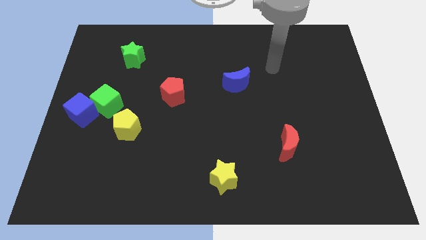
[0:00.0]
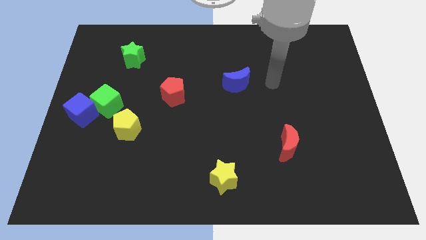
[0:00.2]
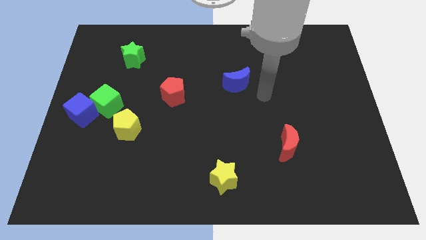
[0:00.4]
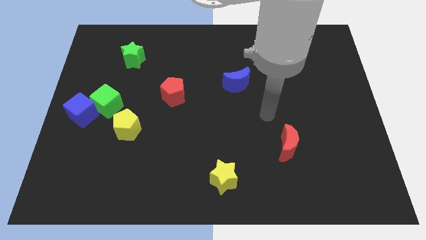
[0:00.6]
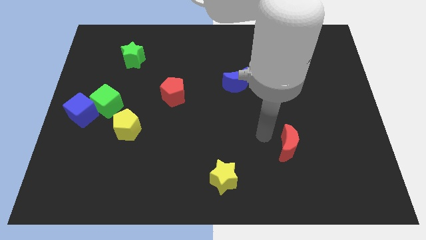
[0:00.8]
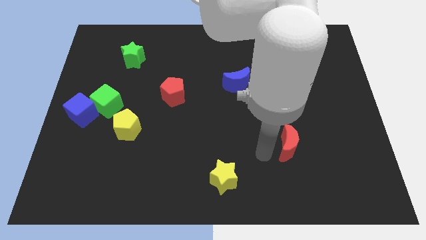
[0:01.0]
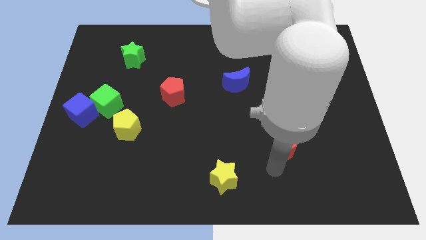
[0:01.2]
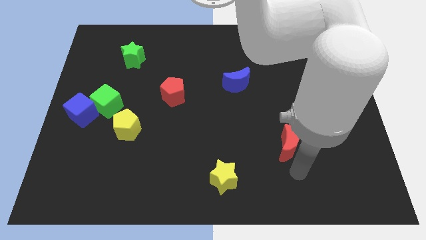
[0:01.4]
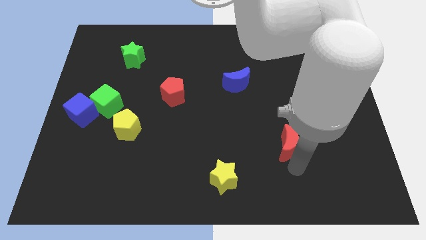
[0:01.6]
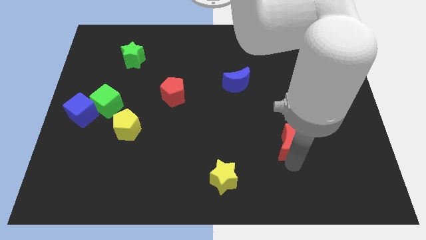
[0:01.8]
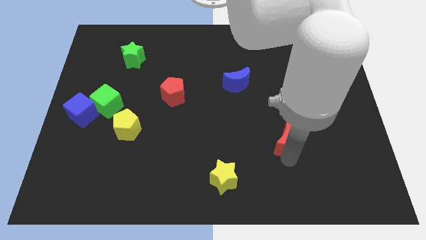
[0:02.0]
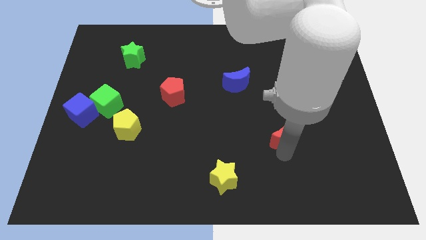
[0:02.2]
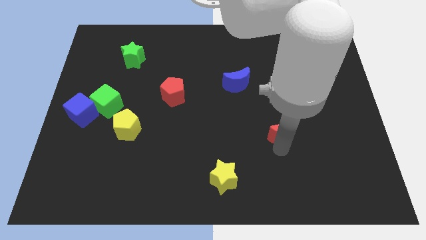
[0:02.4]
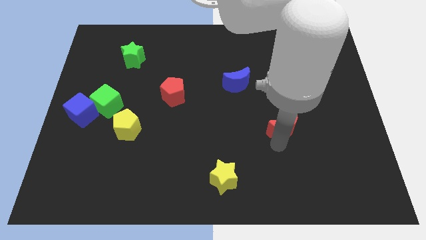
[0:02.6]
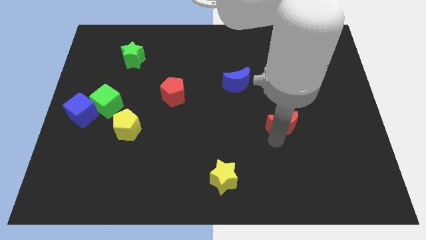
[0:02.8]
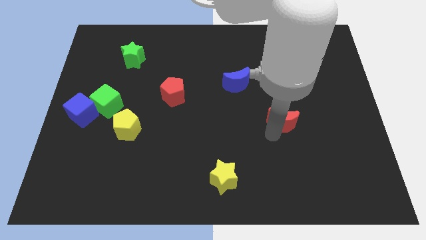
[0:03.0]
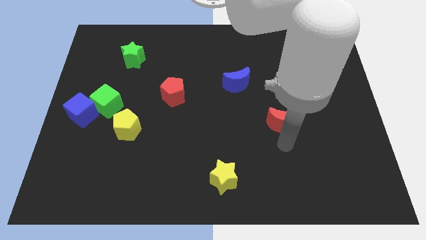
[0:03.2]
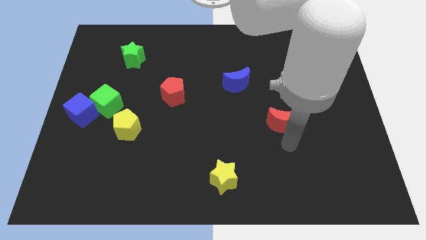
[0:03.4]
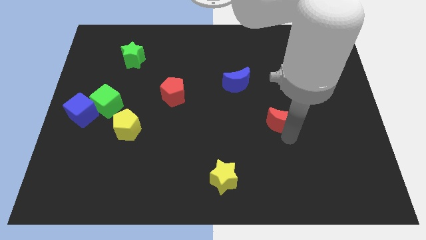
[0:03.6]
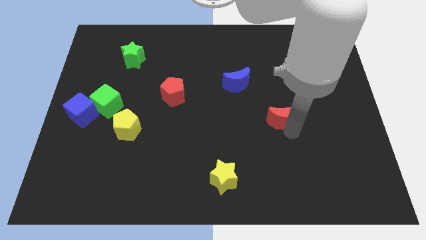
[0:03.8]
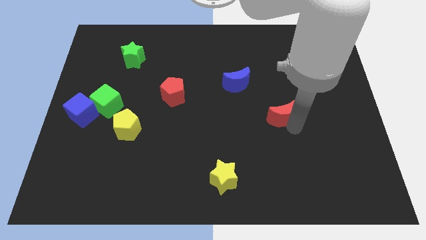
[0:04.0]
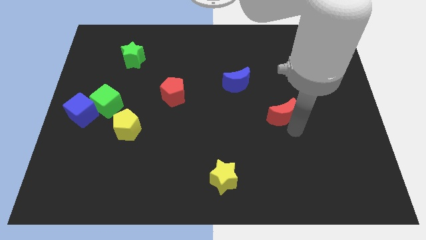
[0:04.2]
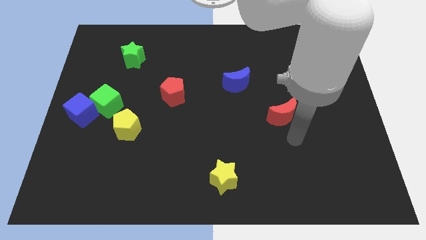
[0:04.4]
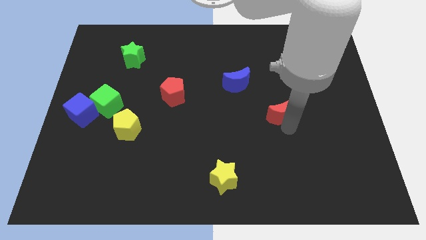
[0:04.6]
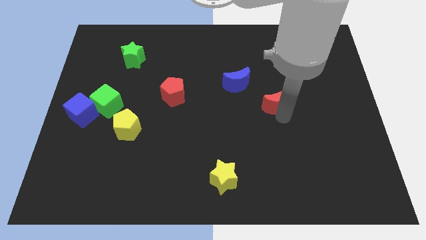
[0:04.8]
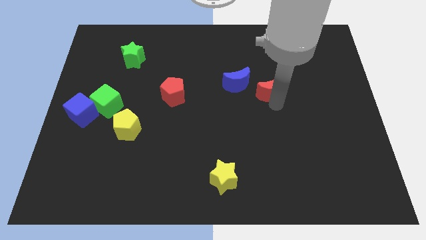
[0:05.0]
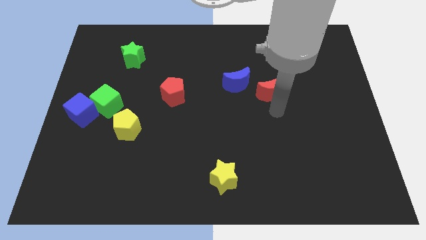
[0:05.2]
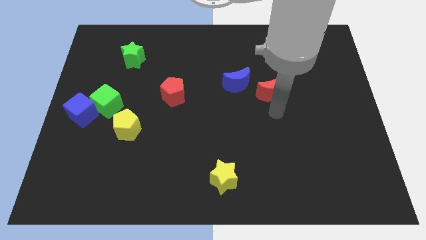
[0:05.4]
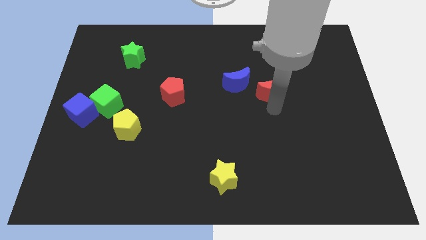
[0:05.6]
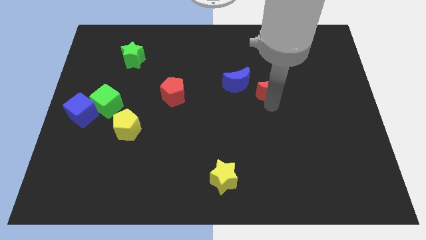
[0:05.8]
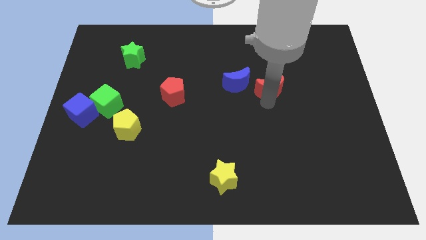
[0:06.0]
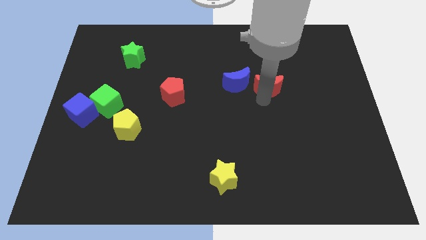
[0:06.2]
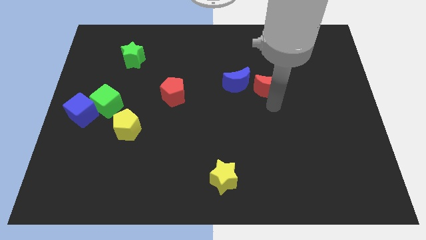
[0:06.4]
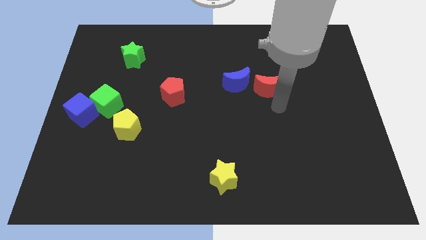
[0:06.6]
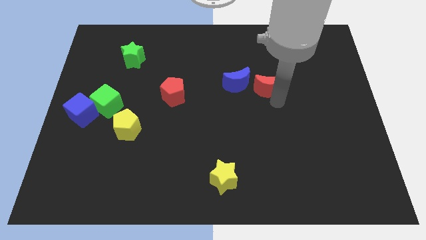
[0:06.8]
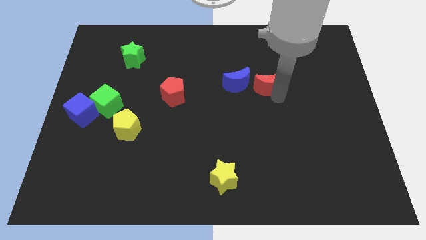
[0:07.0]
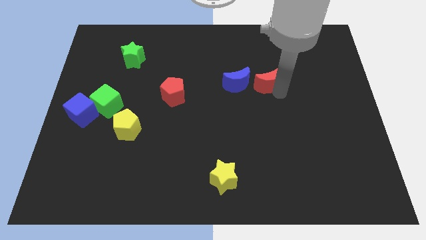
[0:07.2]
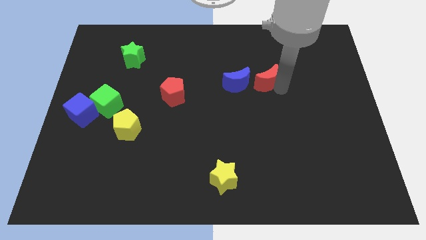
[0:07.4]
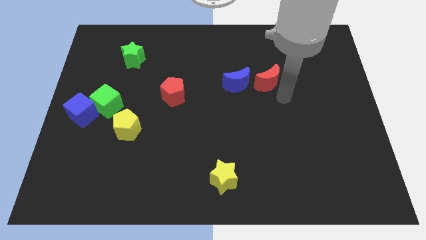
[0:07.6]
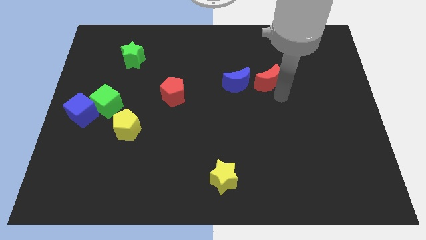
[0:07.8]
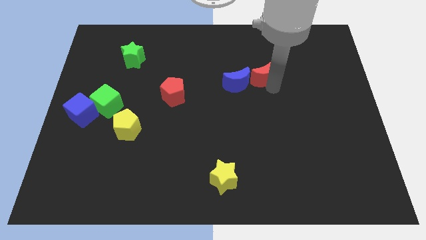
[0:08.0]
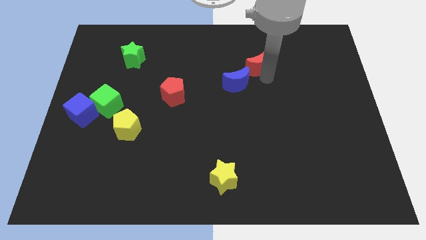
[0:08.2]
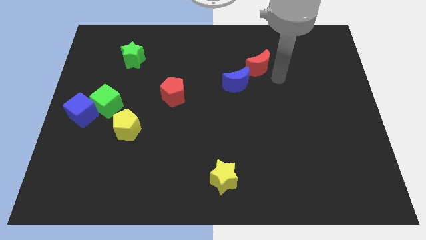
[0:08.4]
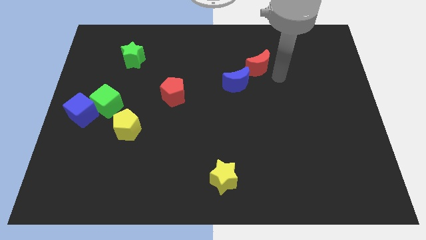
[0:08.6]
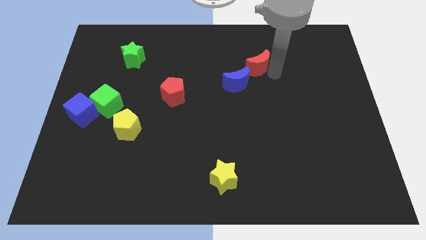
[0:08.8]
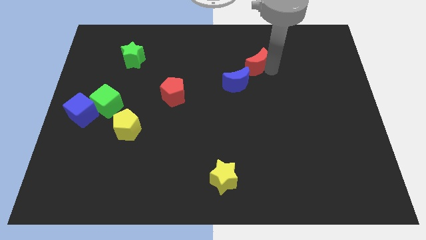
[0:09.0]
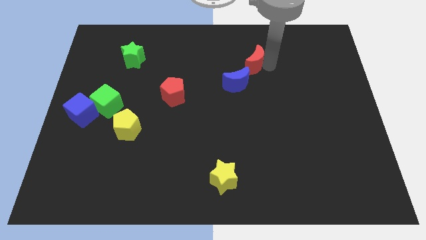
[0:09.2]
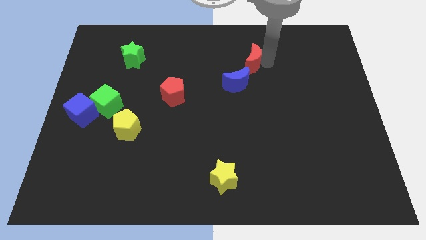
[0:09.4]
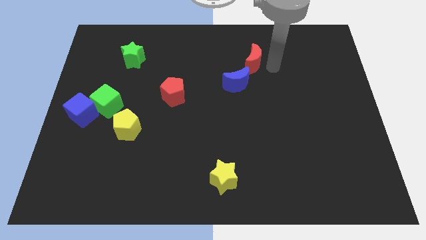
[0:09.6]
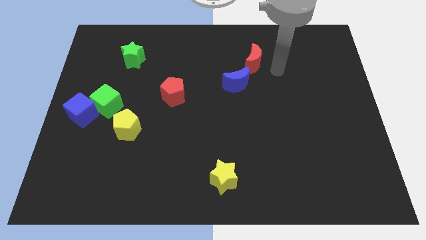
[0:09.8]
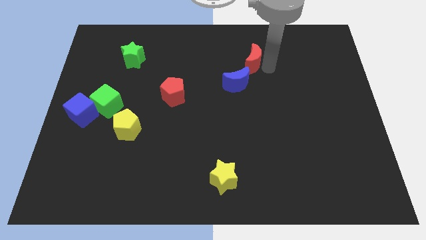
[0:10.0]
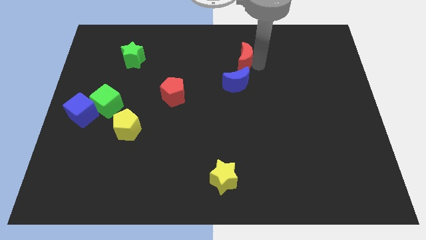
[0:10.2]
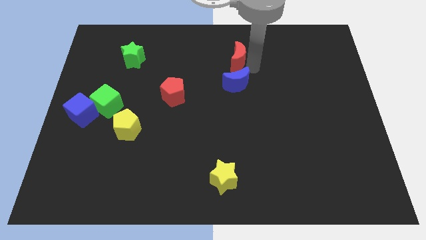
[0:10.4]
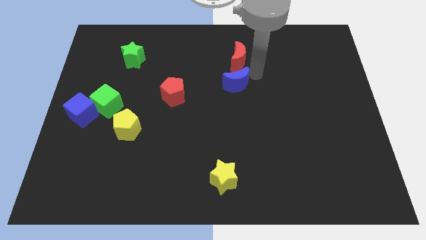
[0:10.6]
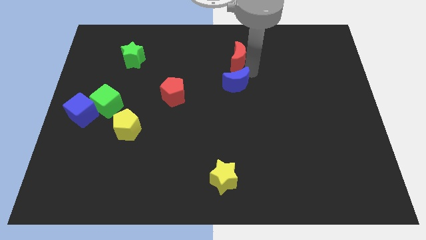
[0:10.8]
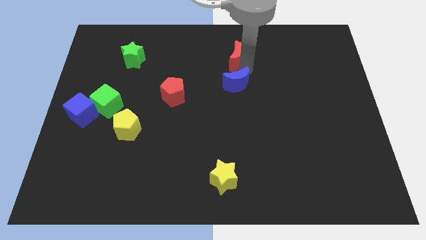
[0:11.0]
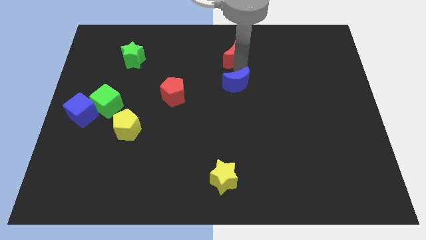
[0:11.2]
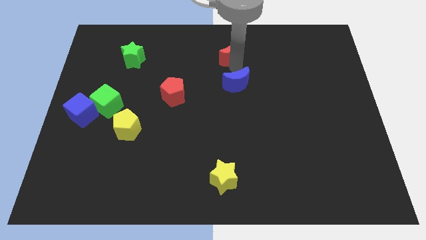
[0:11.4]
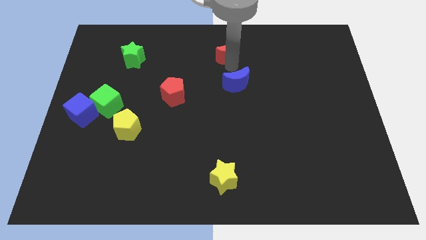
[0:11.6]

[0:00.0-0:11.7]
put the red moon to the towards your base

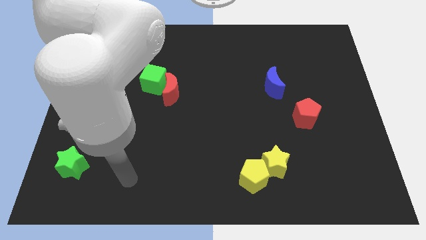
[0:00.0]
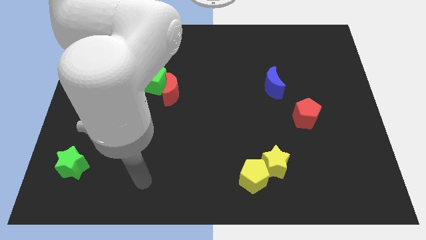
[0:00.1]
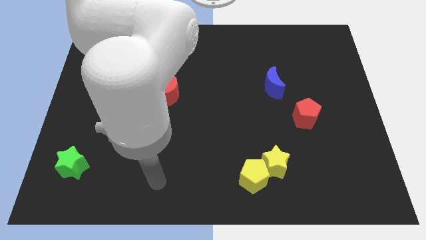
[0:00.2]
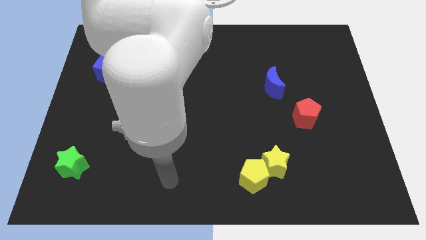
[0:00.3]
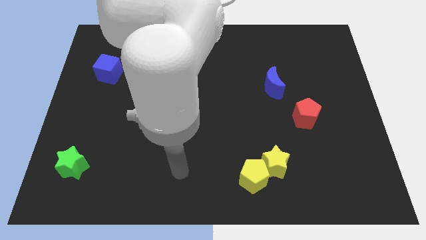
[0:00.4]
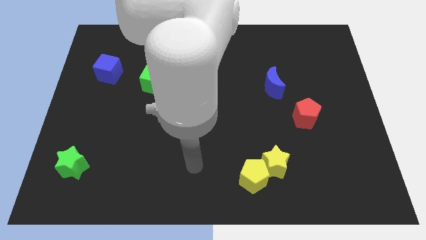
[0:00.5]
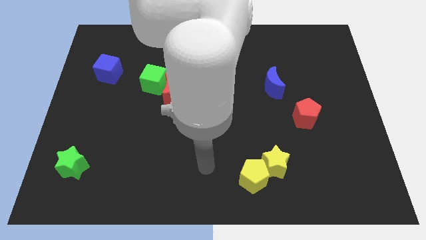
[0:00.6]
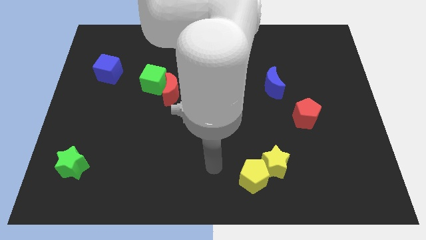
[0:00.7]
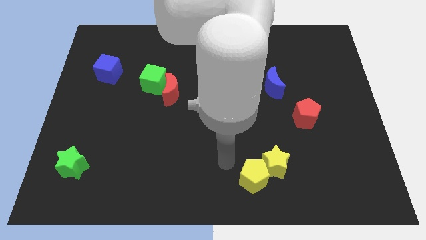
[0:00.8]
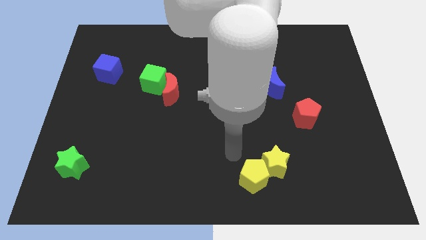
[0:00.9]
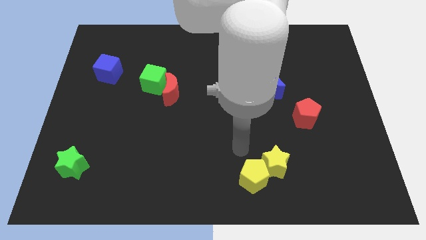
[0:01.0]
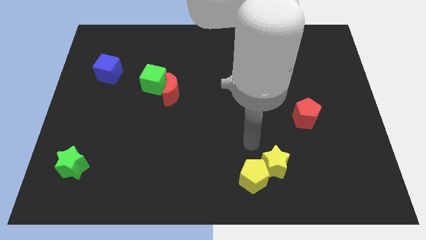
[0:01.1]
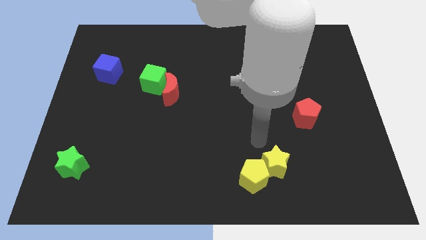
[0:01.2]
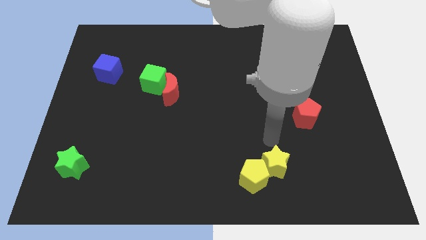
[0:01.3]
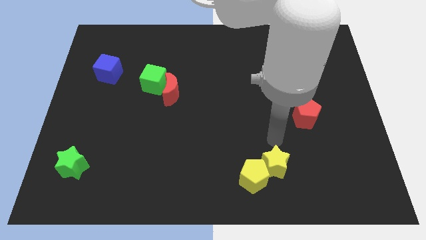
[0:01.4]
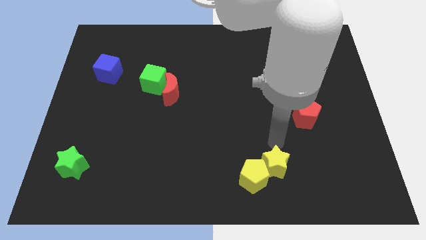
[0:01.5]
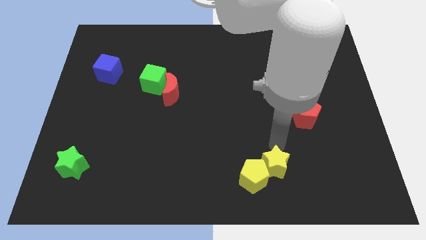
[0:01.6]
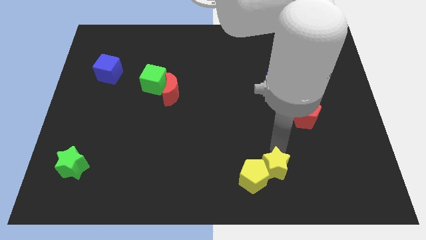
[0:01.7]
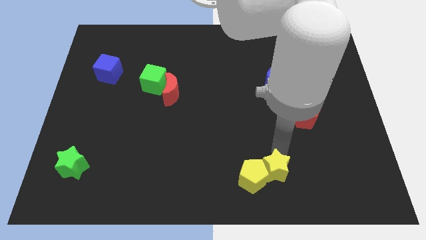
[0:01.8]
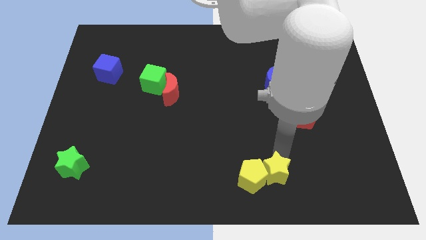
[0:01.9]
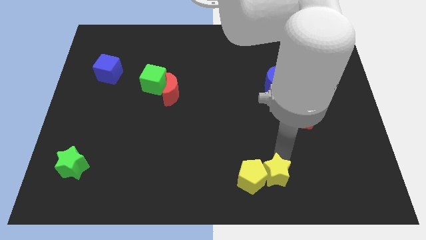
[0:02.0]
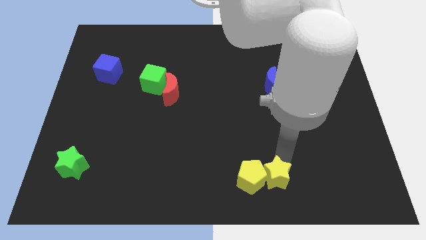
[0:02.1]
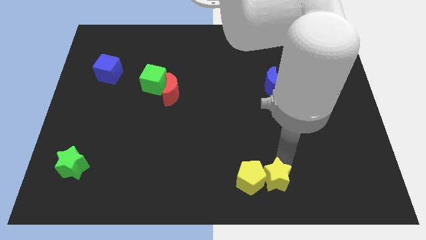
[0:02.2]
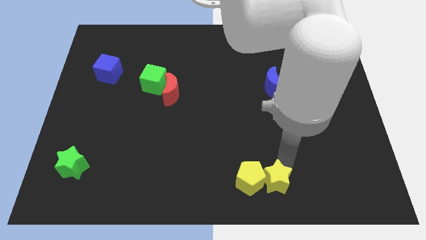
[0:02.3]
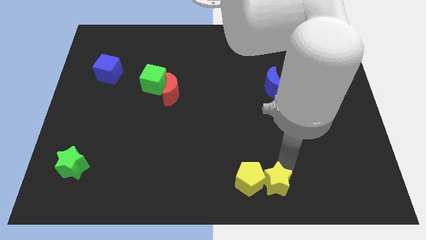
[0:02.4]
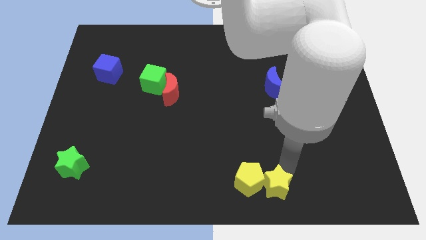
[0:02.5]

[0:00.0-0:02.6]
push the yellow star to the bottom side
